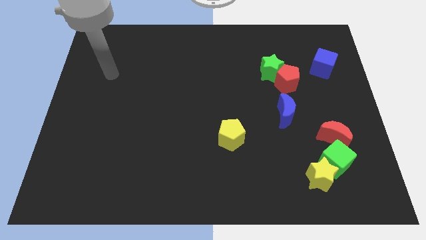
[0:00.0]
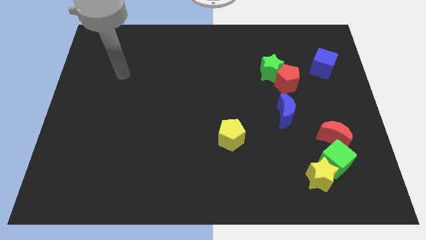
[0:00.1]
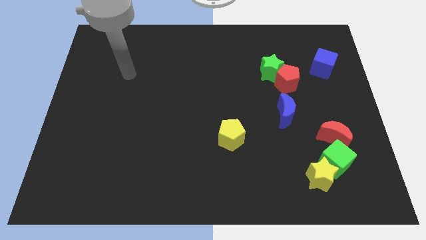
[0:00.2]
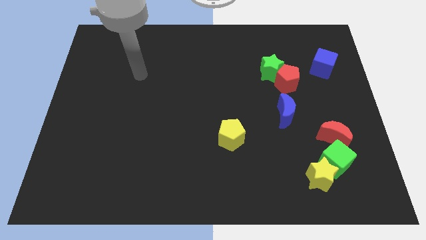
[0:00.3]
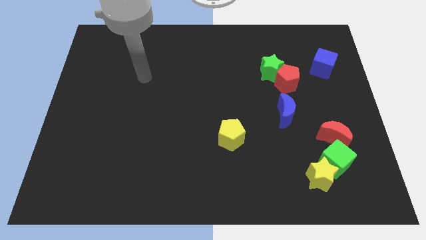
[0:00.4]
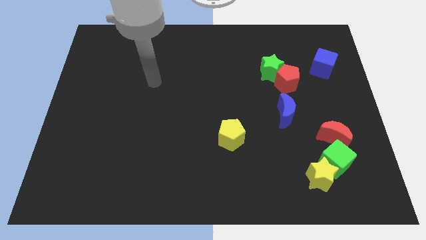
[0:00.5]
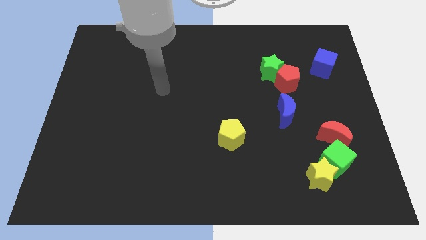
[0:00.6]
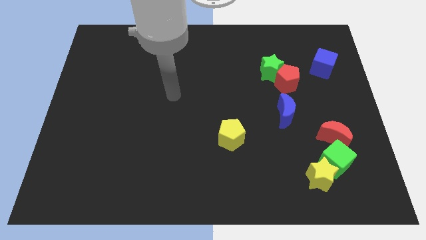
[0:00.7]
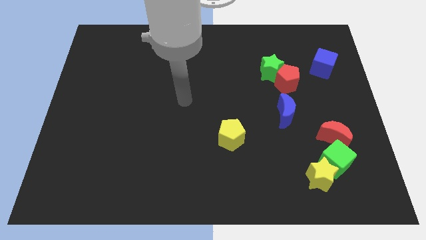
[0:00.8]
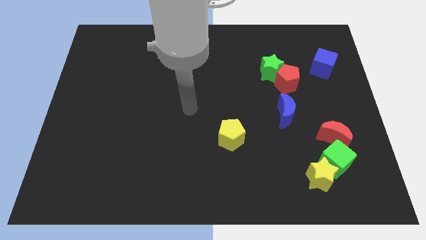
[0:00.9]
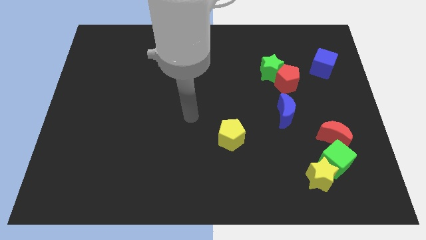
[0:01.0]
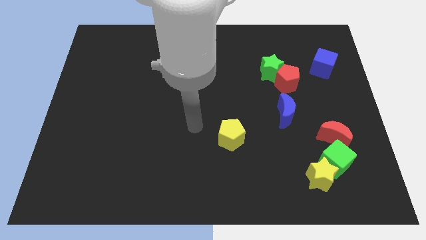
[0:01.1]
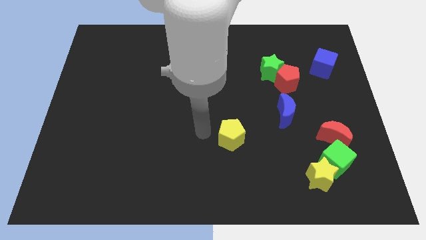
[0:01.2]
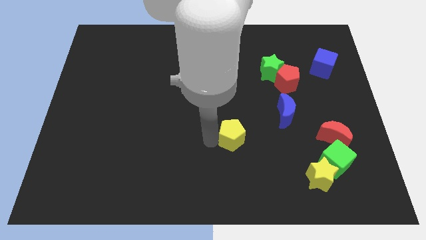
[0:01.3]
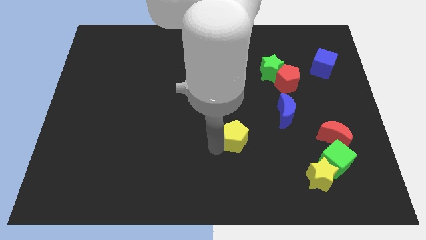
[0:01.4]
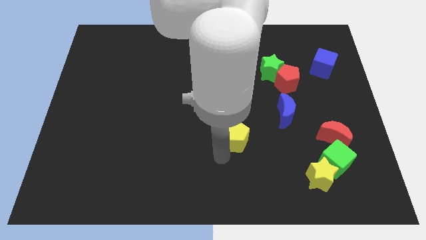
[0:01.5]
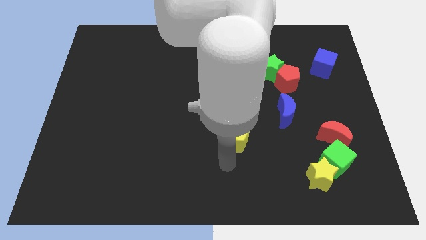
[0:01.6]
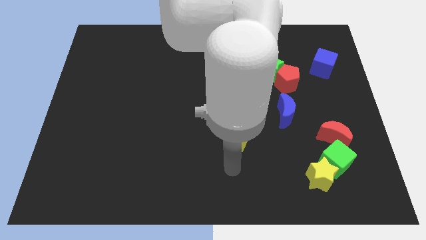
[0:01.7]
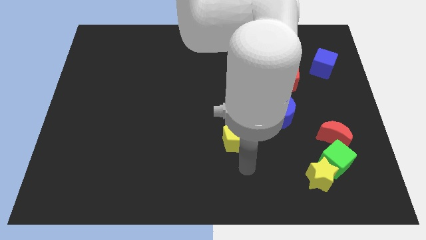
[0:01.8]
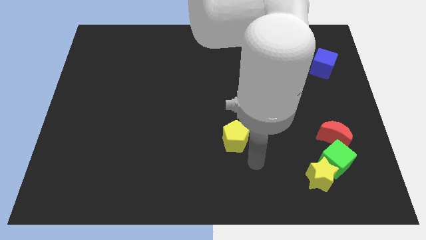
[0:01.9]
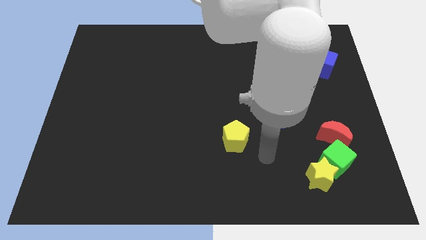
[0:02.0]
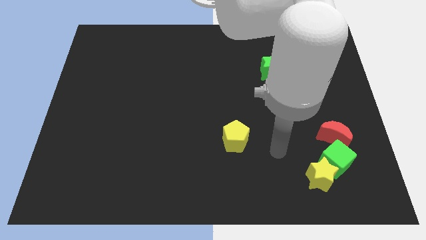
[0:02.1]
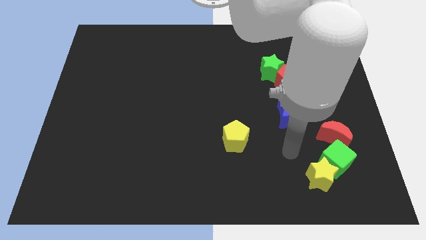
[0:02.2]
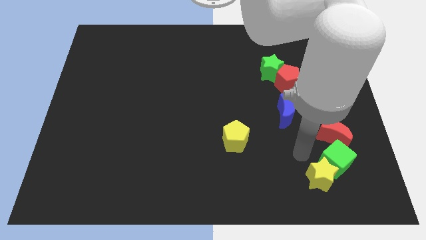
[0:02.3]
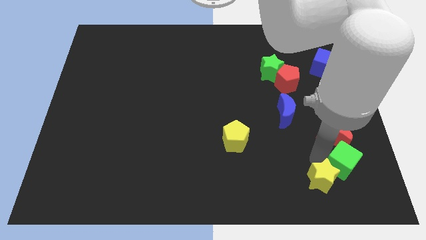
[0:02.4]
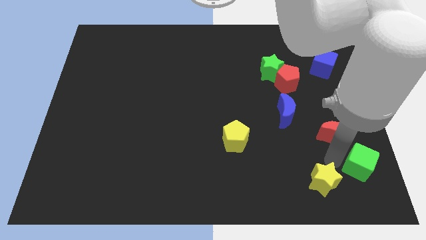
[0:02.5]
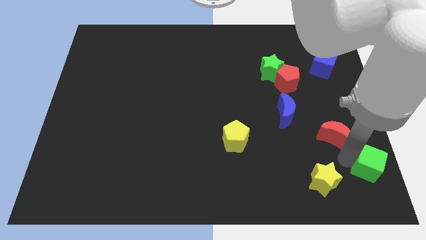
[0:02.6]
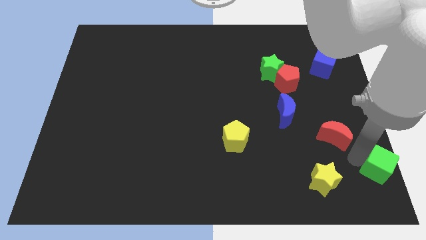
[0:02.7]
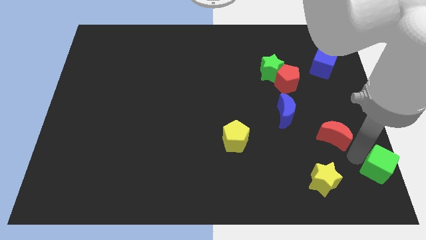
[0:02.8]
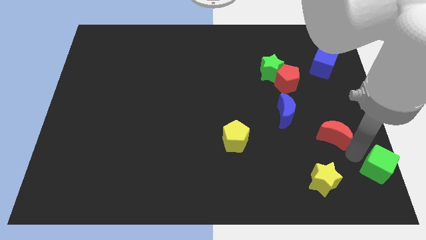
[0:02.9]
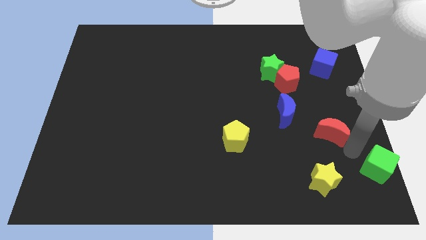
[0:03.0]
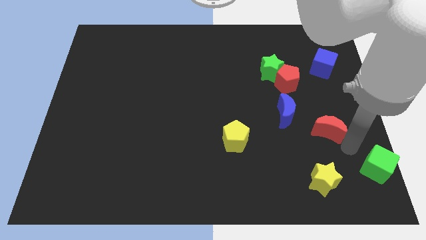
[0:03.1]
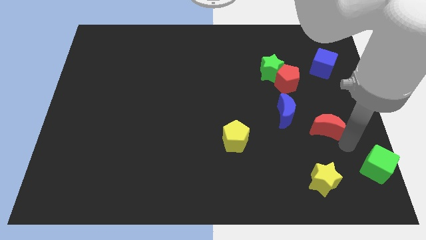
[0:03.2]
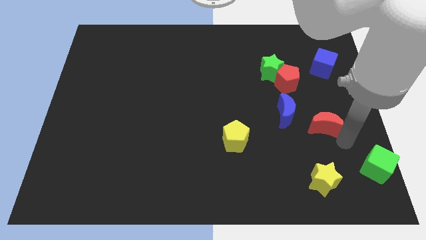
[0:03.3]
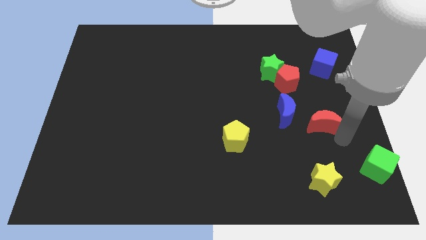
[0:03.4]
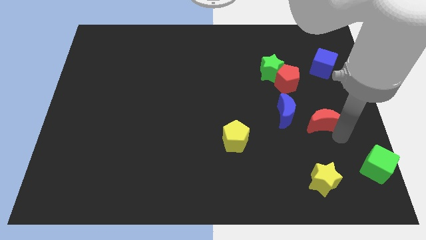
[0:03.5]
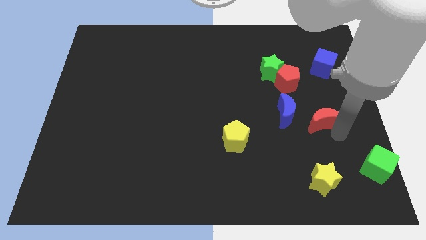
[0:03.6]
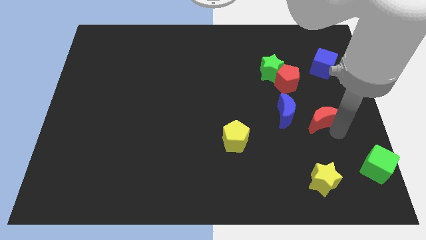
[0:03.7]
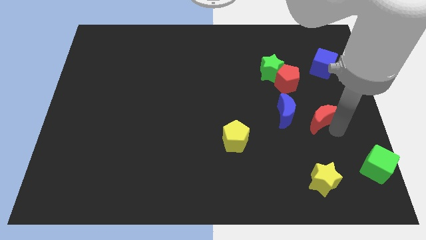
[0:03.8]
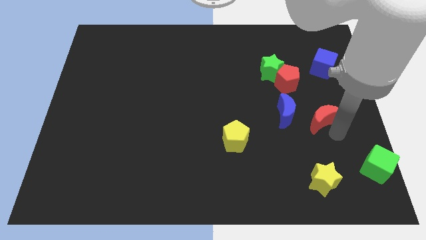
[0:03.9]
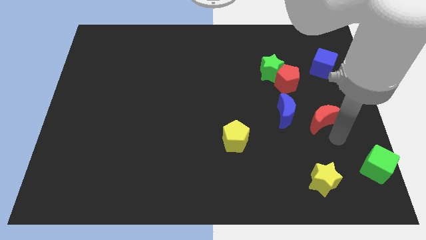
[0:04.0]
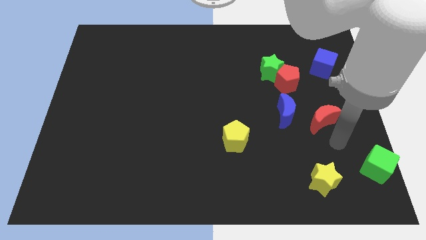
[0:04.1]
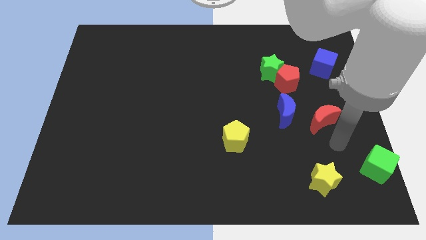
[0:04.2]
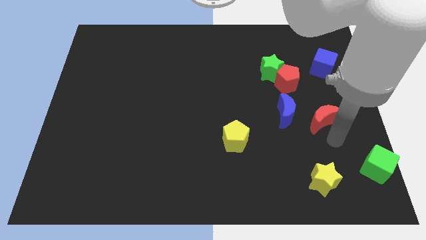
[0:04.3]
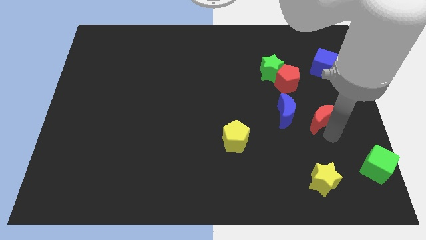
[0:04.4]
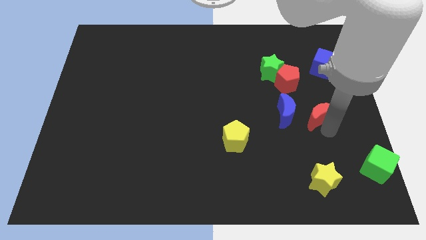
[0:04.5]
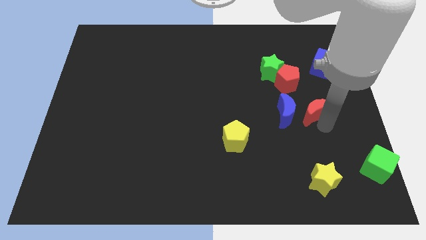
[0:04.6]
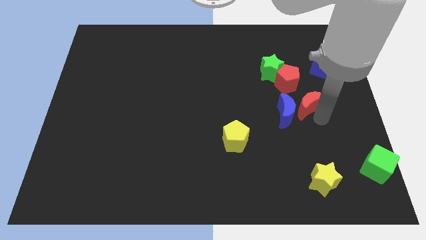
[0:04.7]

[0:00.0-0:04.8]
slightly push the red moon upwards and left diagonally

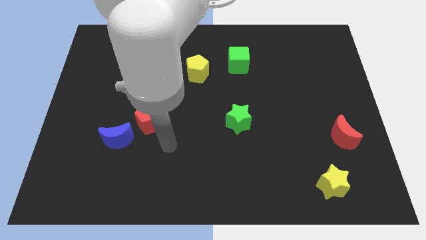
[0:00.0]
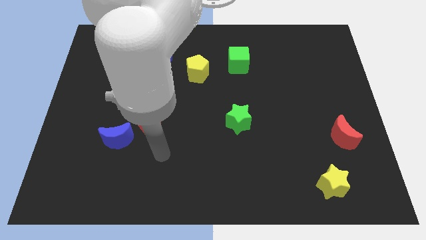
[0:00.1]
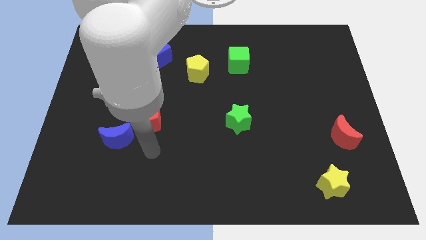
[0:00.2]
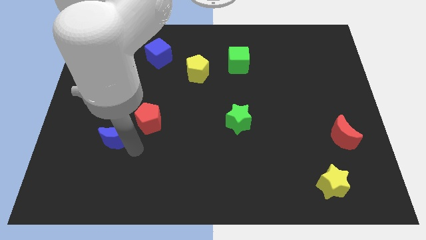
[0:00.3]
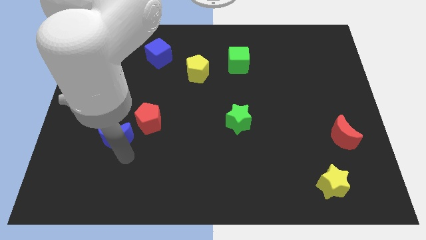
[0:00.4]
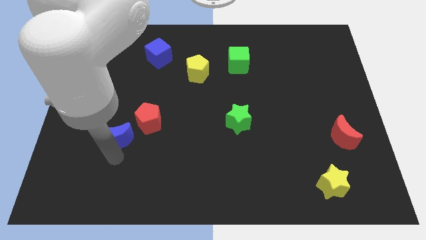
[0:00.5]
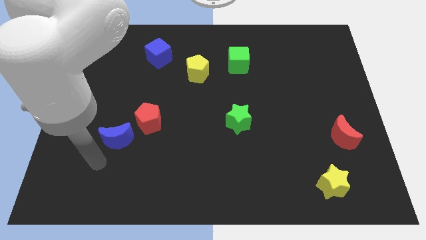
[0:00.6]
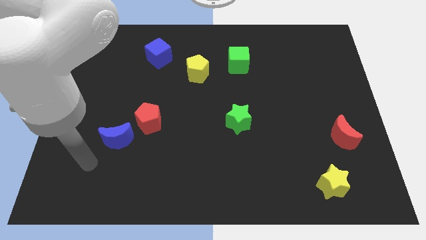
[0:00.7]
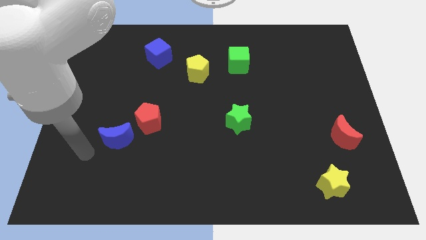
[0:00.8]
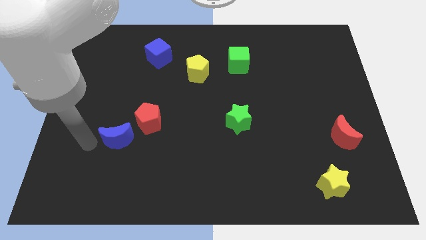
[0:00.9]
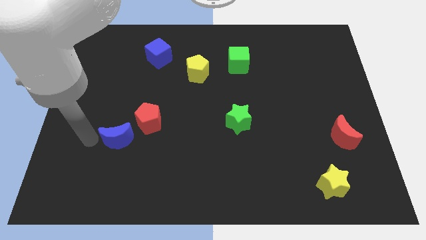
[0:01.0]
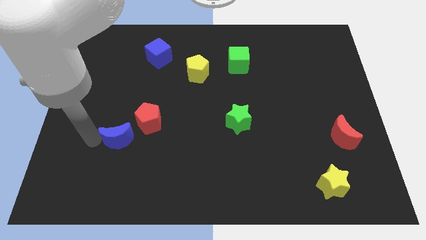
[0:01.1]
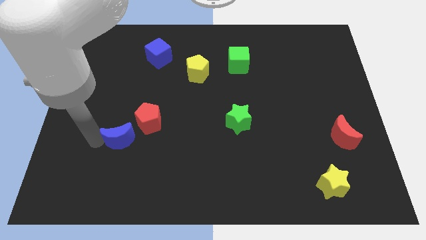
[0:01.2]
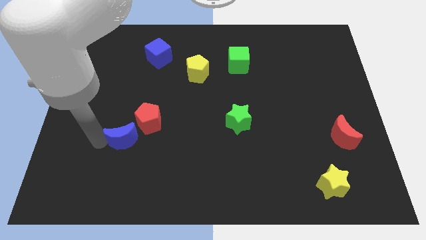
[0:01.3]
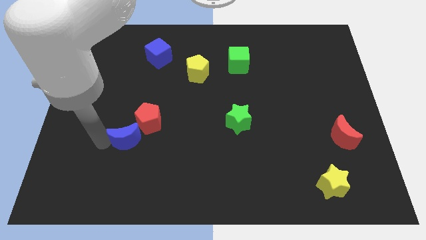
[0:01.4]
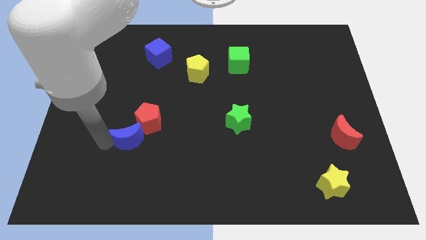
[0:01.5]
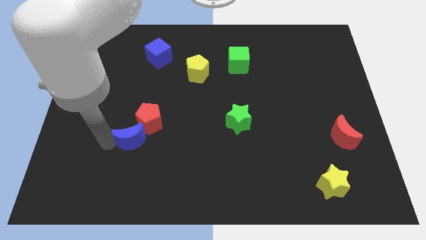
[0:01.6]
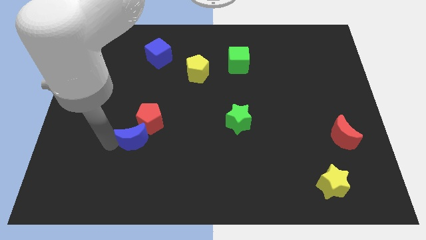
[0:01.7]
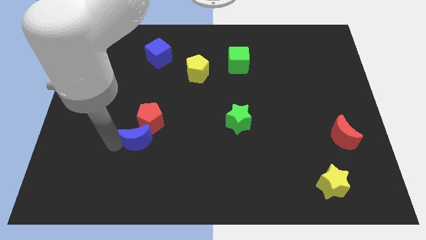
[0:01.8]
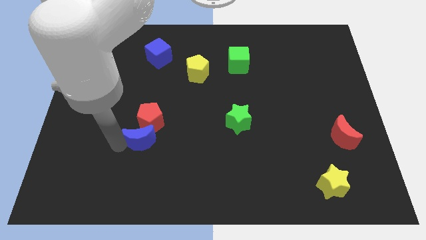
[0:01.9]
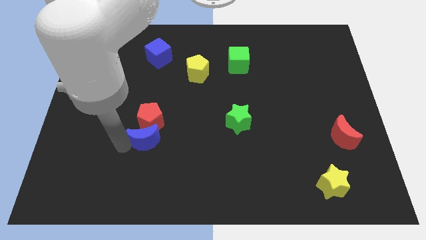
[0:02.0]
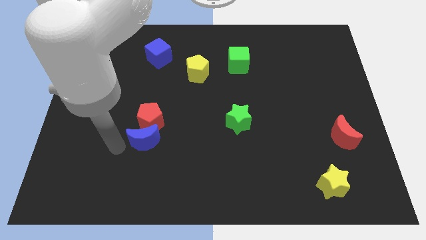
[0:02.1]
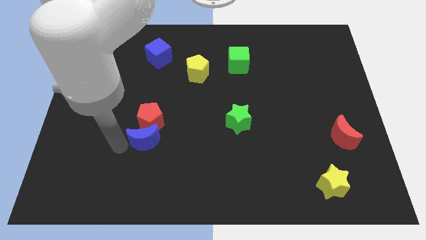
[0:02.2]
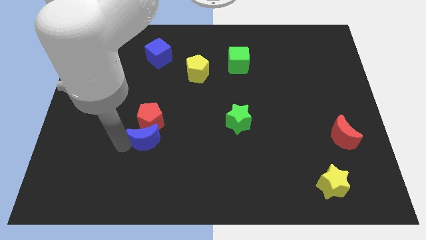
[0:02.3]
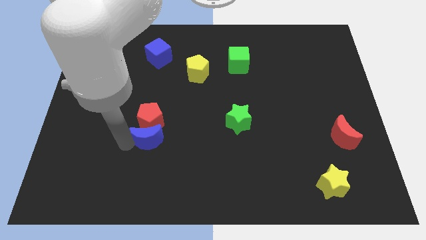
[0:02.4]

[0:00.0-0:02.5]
push the blue moon to the right a little

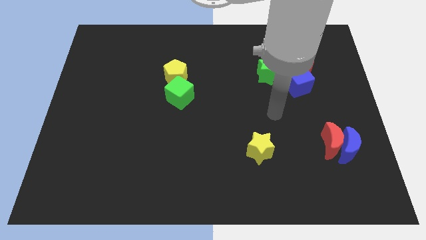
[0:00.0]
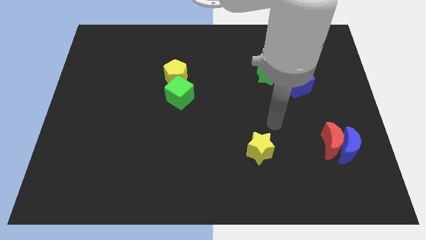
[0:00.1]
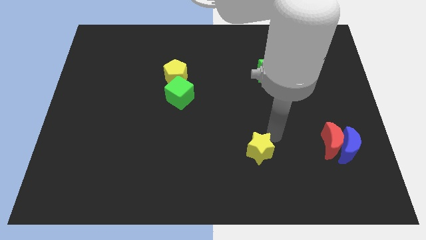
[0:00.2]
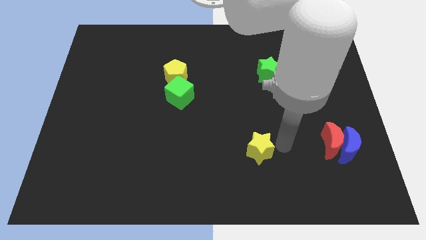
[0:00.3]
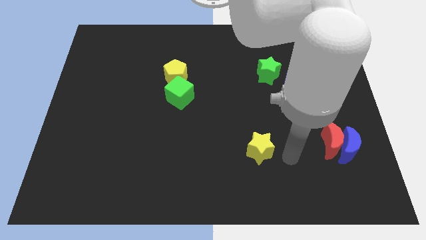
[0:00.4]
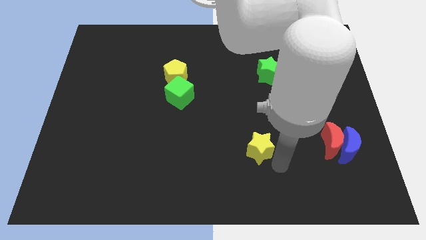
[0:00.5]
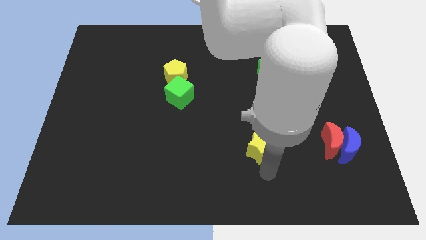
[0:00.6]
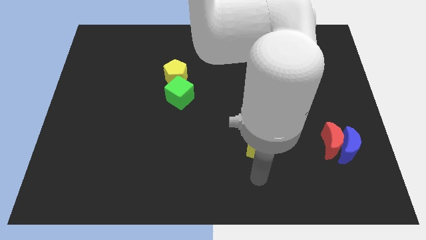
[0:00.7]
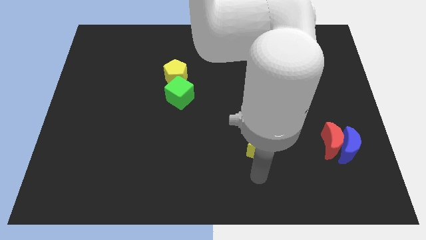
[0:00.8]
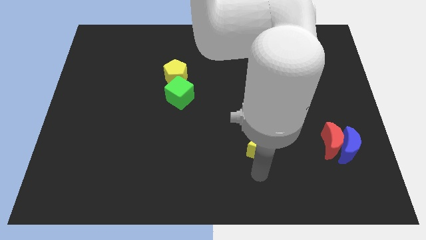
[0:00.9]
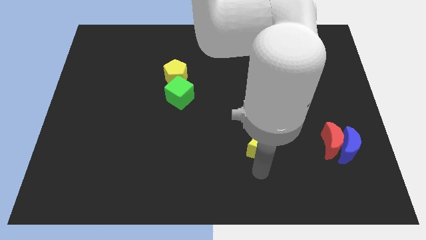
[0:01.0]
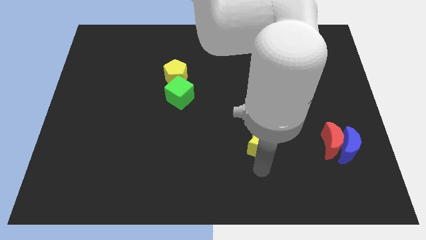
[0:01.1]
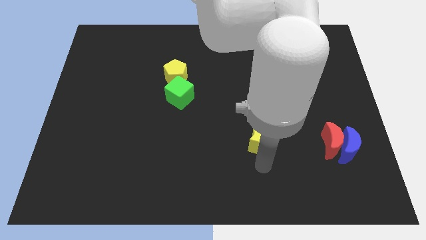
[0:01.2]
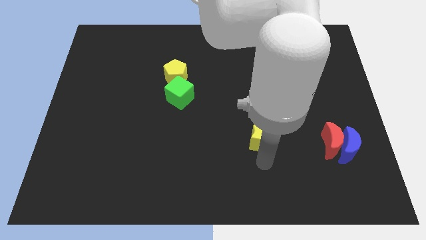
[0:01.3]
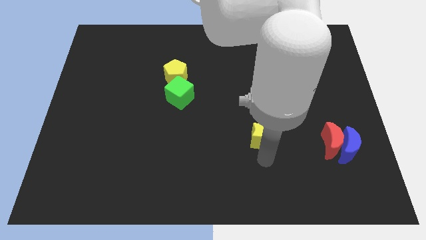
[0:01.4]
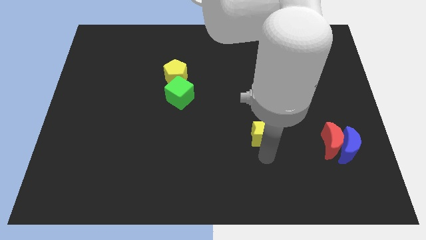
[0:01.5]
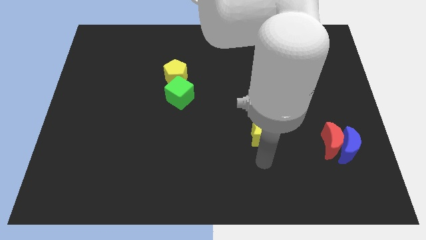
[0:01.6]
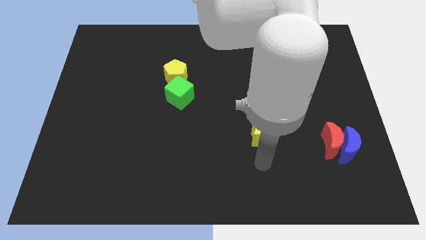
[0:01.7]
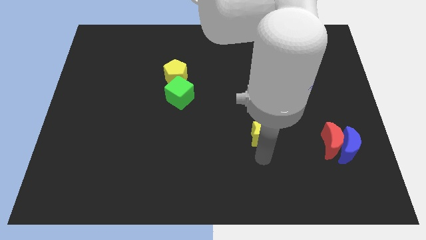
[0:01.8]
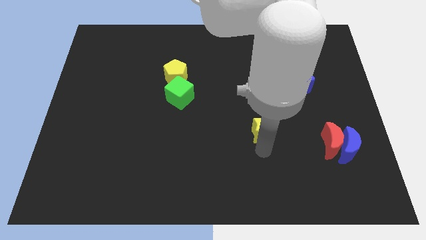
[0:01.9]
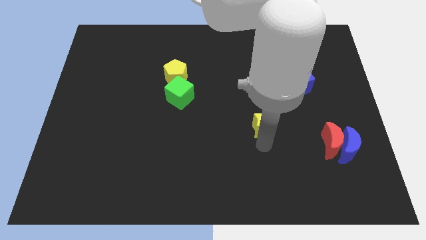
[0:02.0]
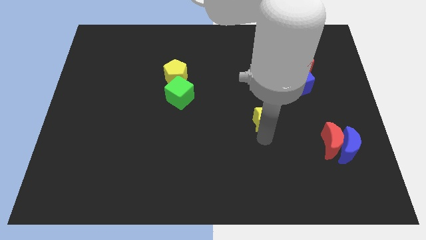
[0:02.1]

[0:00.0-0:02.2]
push the yellow star a little upwards
